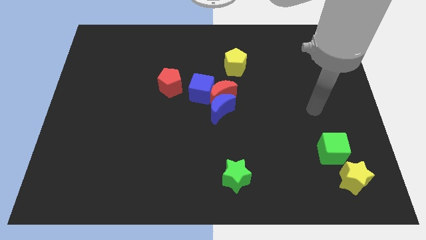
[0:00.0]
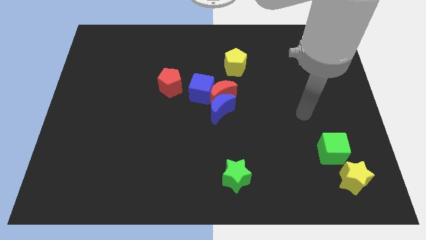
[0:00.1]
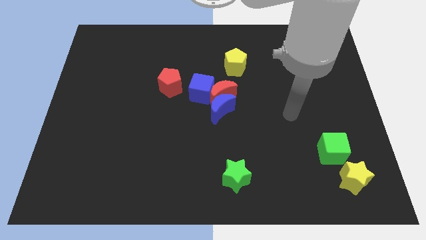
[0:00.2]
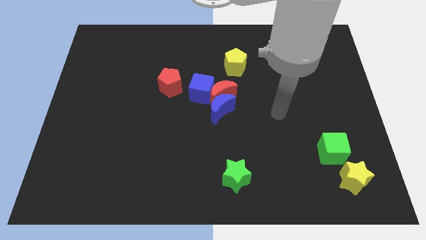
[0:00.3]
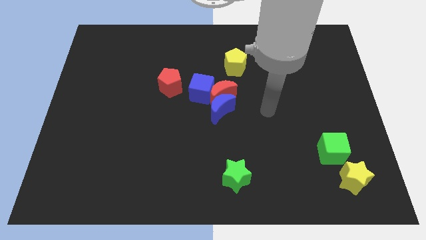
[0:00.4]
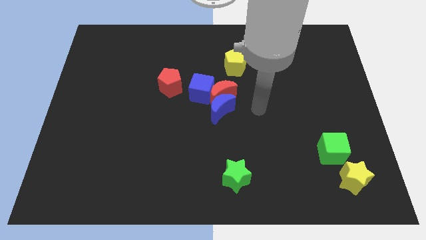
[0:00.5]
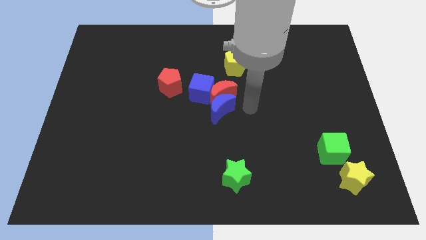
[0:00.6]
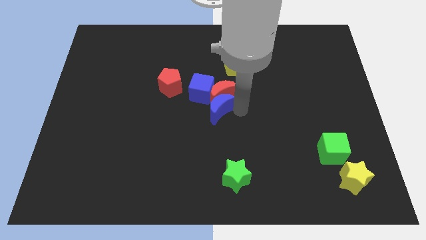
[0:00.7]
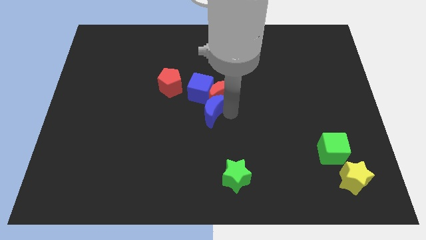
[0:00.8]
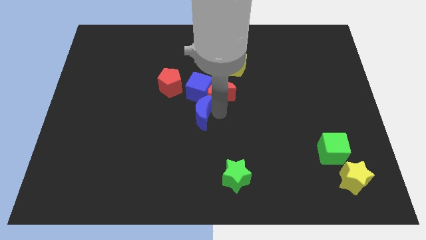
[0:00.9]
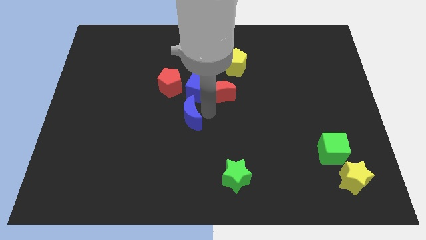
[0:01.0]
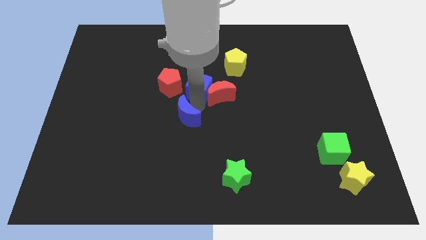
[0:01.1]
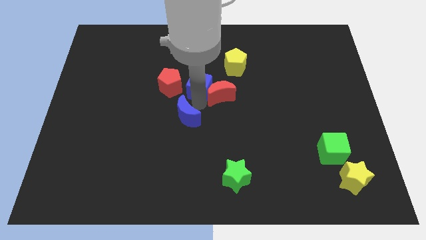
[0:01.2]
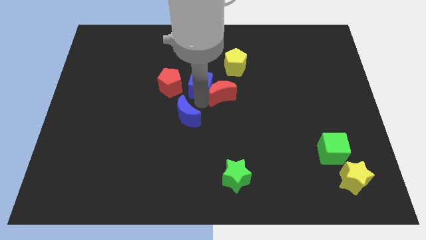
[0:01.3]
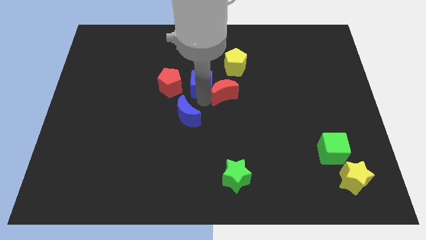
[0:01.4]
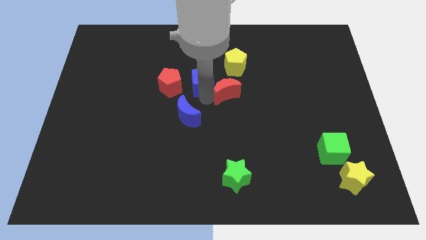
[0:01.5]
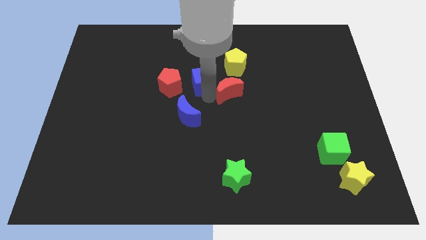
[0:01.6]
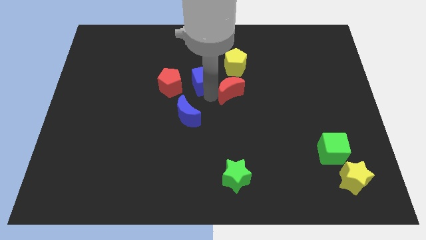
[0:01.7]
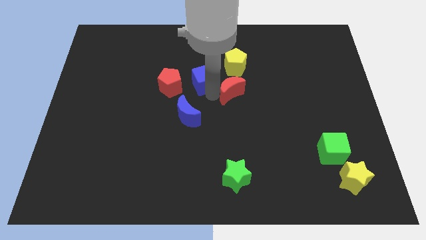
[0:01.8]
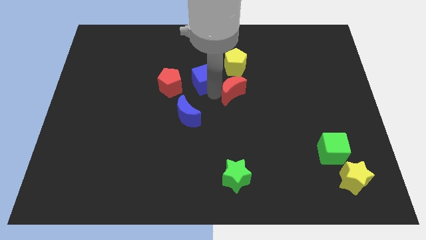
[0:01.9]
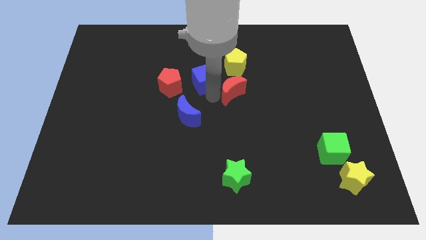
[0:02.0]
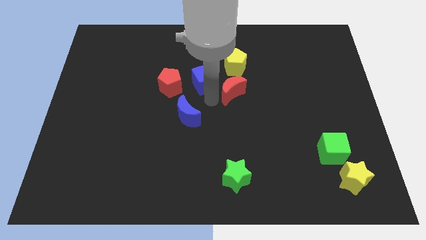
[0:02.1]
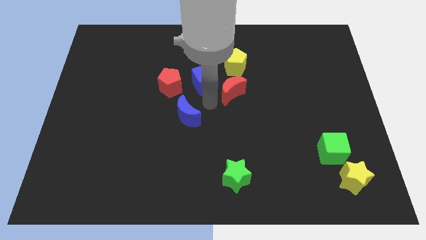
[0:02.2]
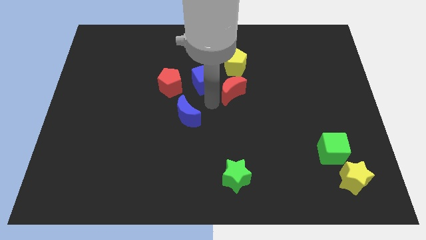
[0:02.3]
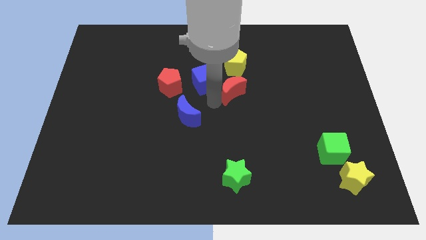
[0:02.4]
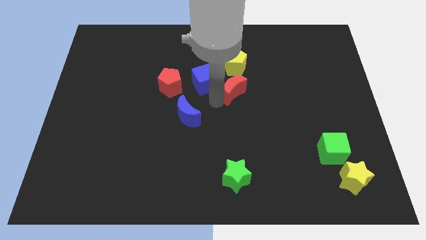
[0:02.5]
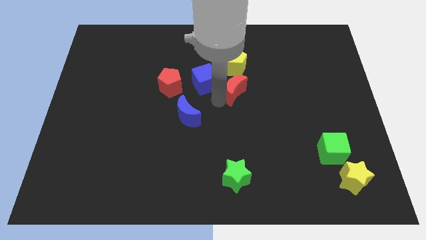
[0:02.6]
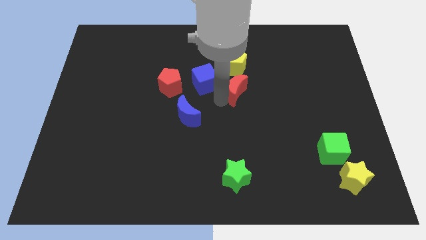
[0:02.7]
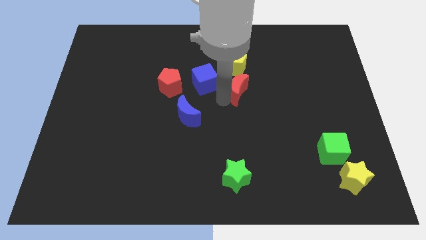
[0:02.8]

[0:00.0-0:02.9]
move the red moon away from the blue moon and blue cube

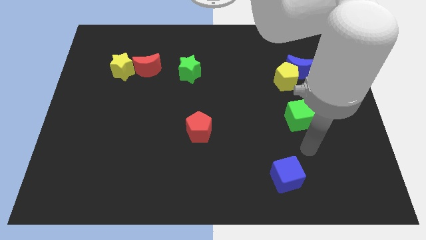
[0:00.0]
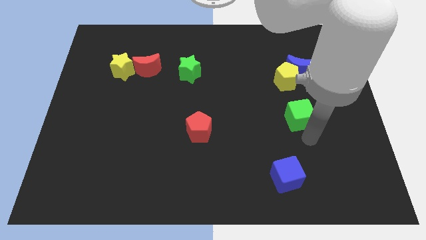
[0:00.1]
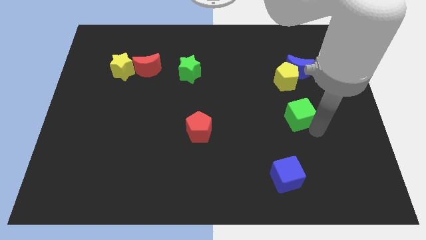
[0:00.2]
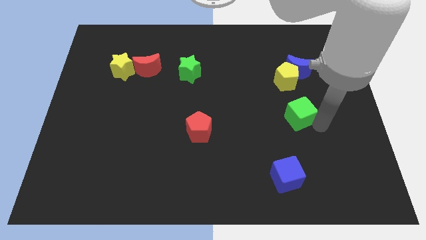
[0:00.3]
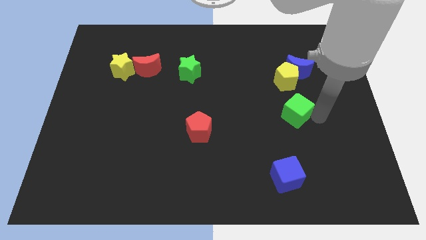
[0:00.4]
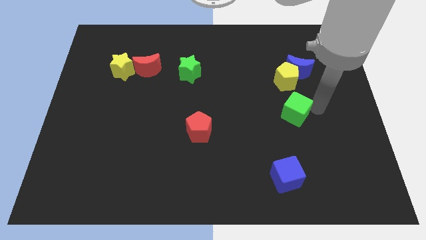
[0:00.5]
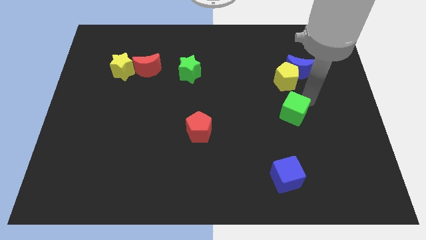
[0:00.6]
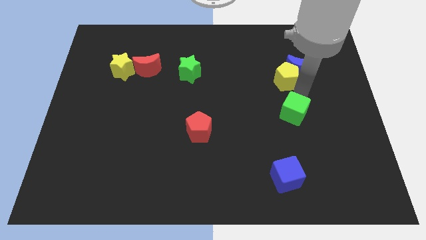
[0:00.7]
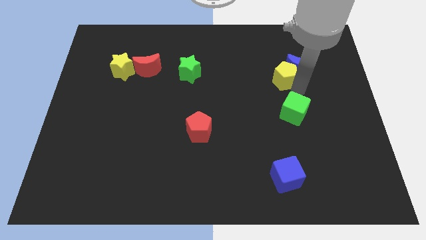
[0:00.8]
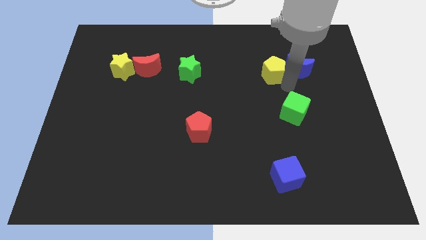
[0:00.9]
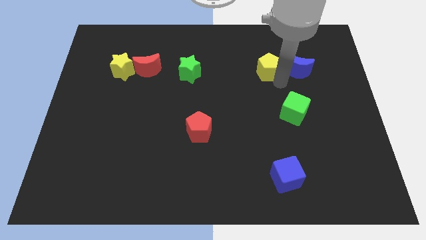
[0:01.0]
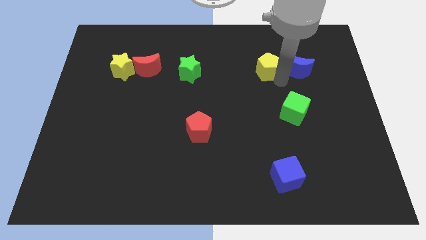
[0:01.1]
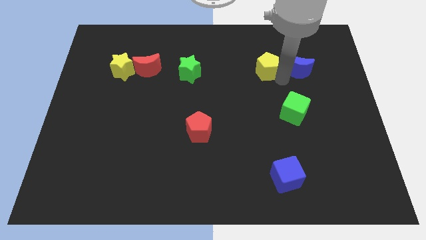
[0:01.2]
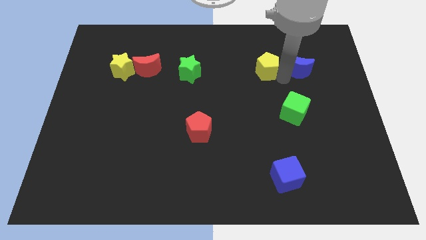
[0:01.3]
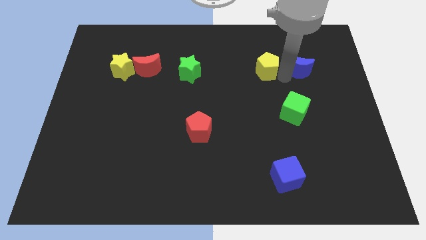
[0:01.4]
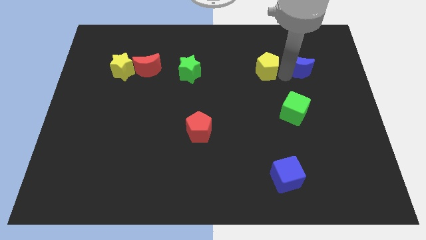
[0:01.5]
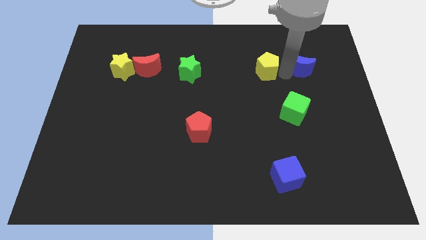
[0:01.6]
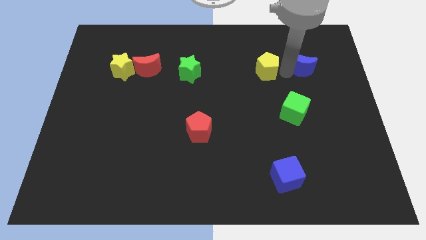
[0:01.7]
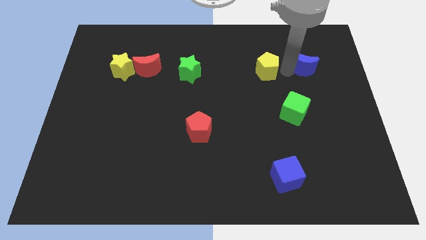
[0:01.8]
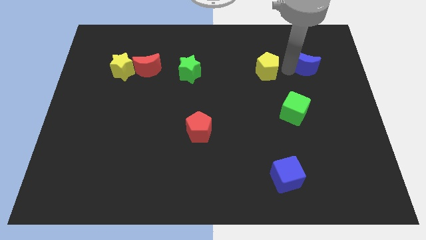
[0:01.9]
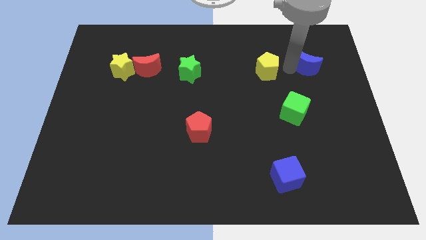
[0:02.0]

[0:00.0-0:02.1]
separate the blue moon from the yellow pentagon

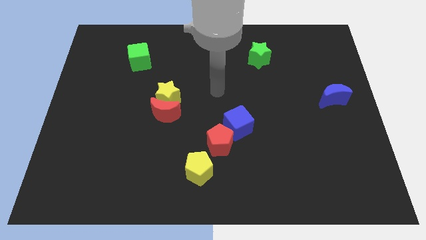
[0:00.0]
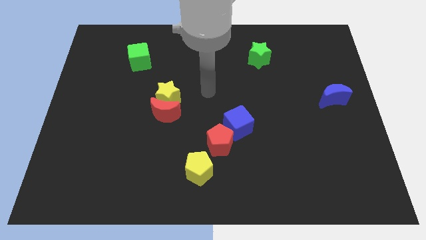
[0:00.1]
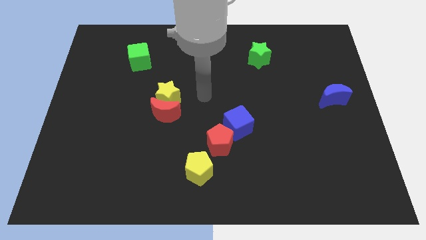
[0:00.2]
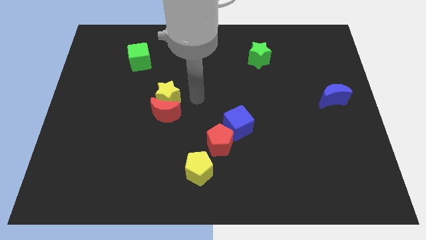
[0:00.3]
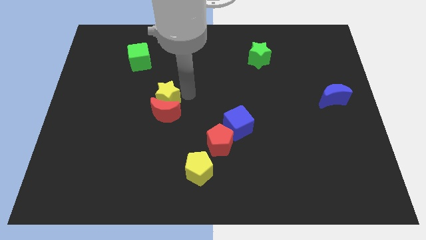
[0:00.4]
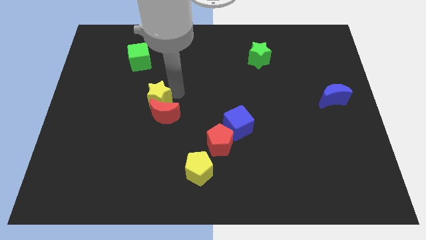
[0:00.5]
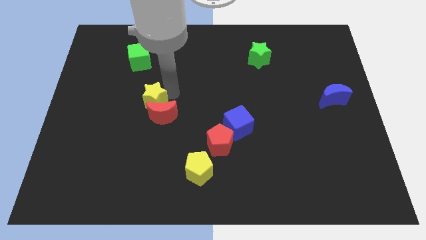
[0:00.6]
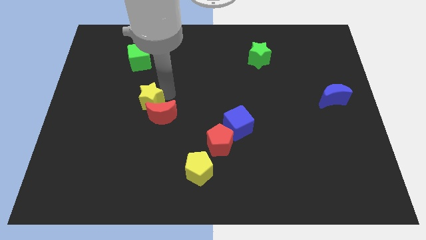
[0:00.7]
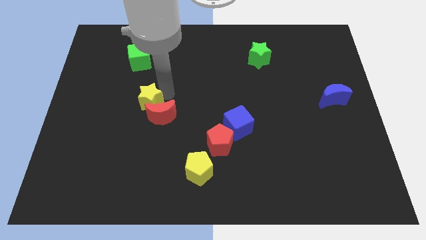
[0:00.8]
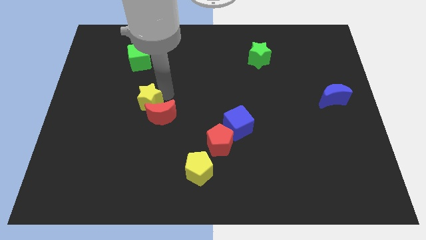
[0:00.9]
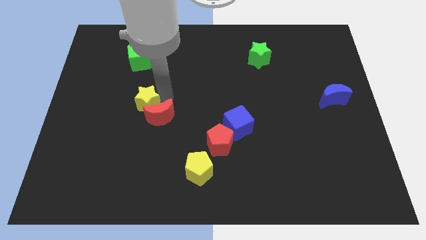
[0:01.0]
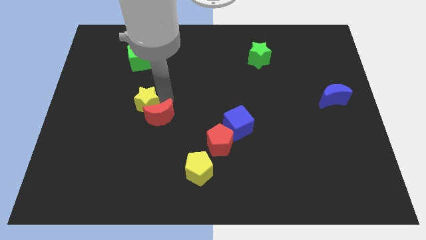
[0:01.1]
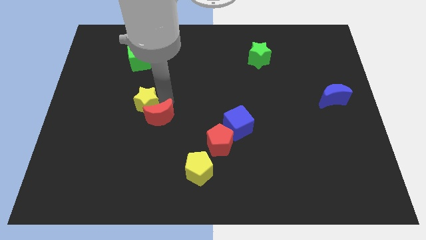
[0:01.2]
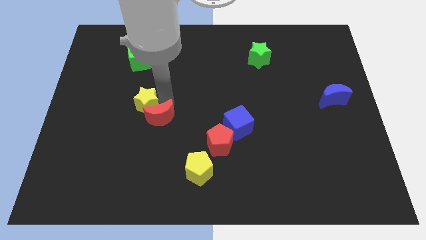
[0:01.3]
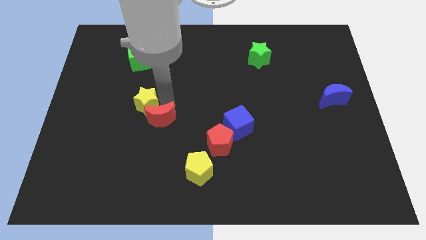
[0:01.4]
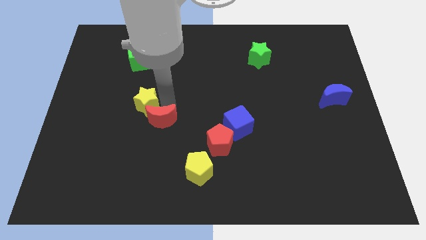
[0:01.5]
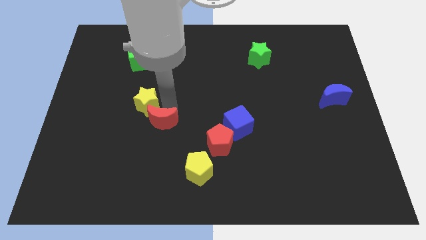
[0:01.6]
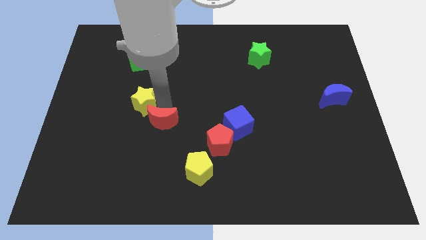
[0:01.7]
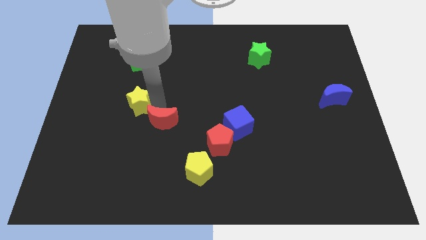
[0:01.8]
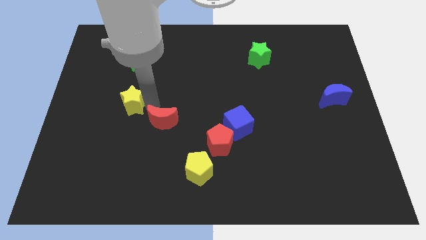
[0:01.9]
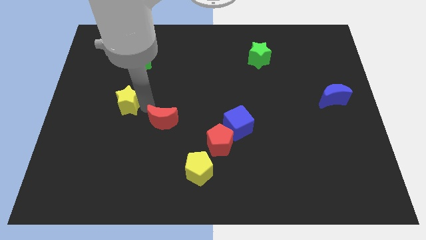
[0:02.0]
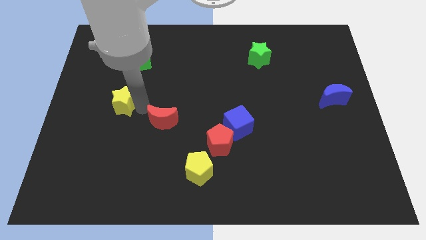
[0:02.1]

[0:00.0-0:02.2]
move the red moon away from the yellow star

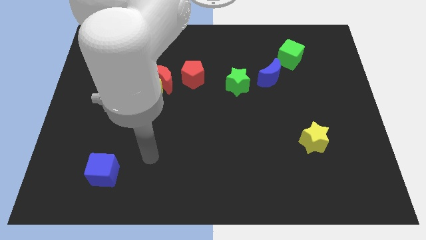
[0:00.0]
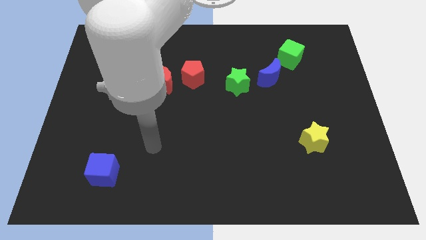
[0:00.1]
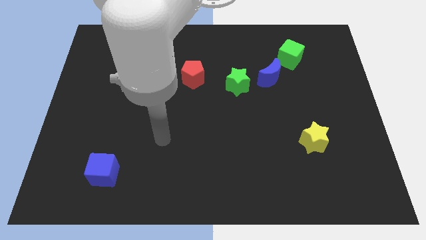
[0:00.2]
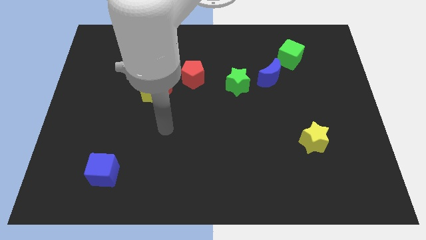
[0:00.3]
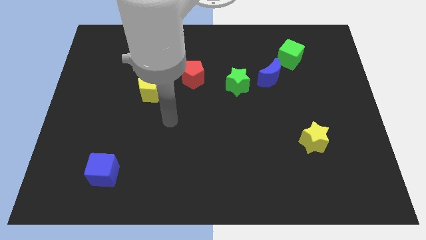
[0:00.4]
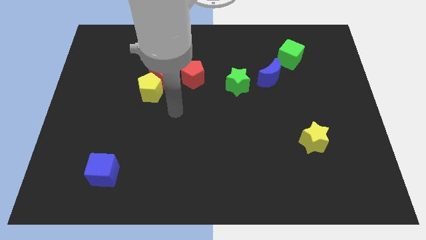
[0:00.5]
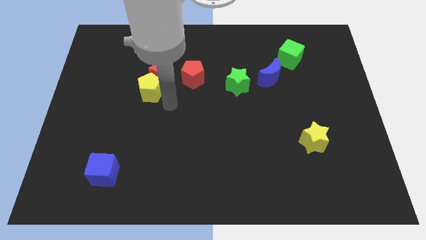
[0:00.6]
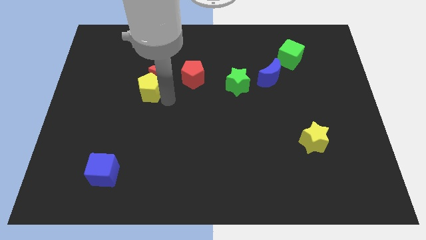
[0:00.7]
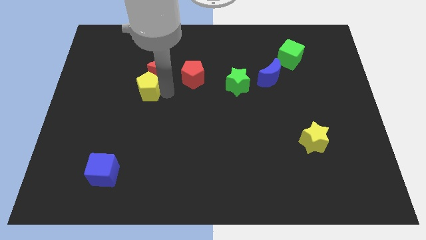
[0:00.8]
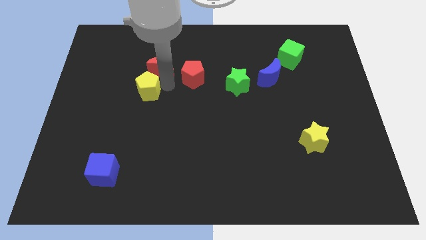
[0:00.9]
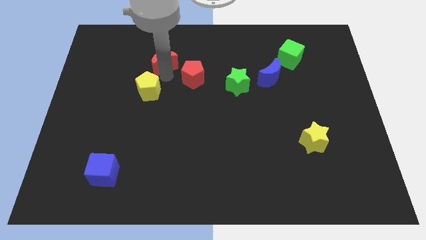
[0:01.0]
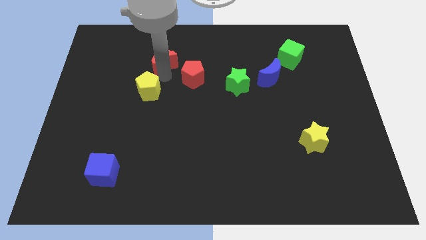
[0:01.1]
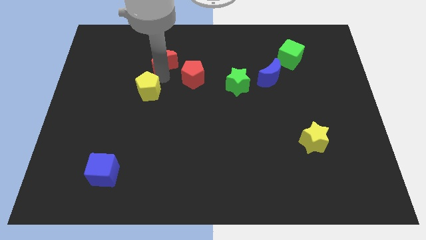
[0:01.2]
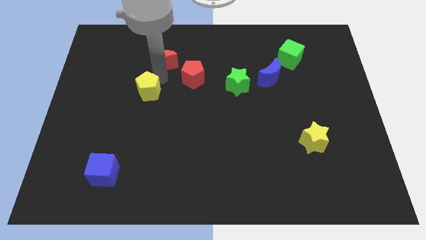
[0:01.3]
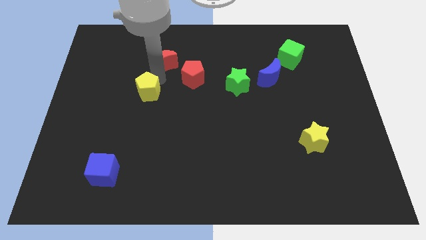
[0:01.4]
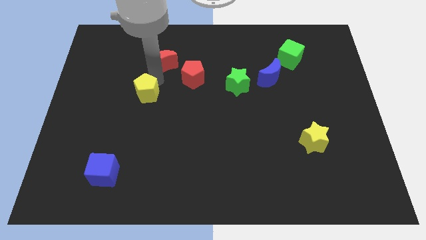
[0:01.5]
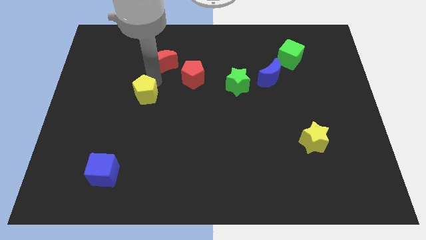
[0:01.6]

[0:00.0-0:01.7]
pull the yellow pentagon apart from the red moon

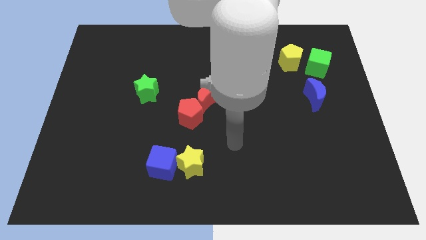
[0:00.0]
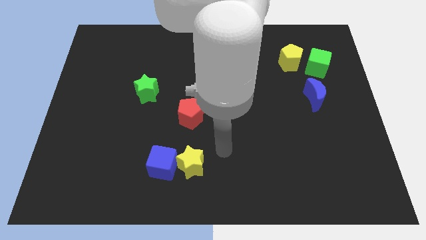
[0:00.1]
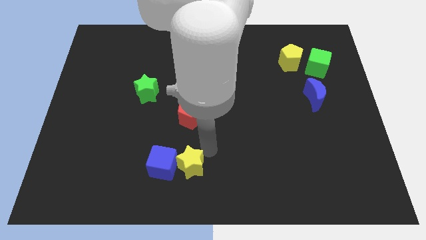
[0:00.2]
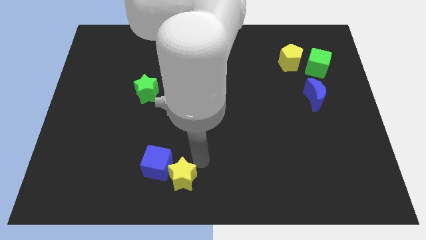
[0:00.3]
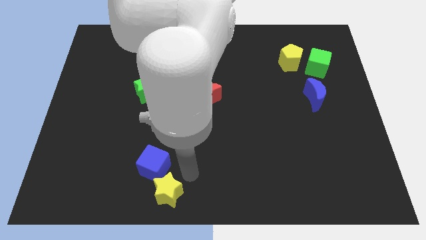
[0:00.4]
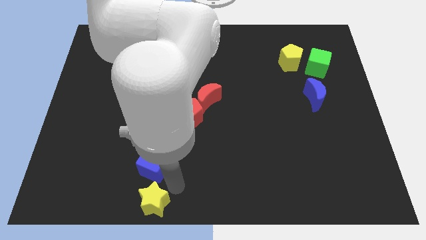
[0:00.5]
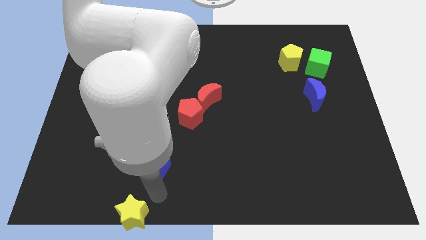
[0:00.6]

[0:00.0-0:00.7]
pull the blue cube apart from the yellow star
